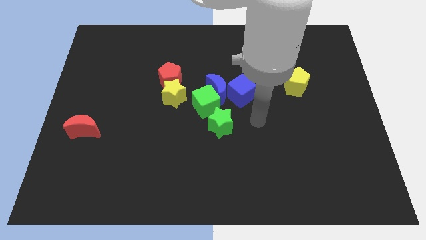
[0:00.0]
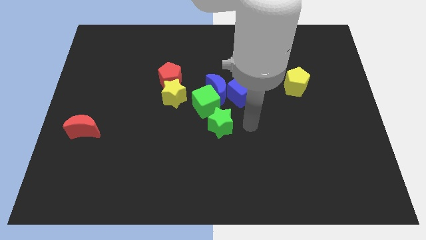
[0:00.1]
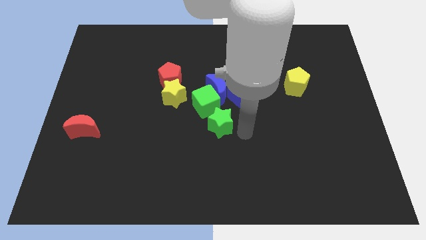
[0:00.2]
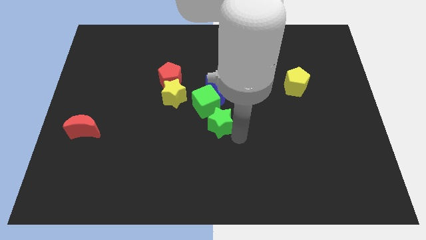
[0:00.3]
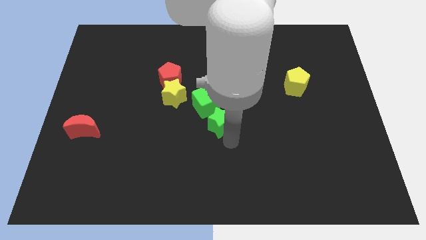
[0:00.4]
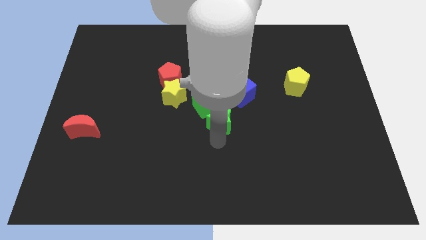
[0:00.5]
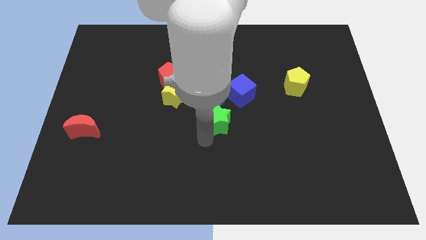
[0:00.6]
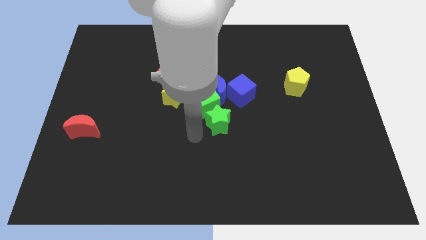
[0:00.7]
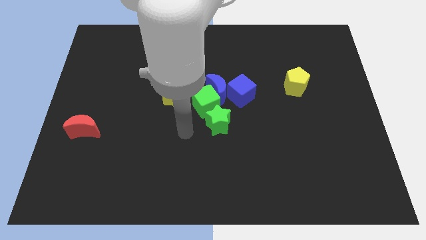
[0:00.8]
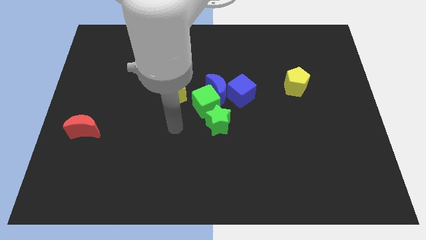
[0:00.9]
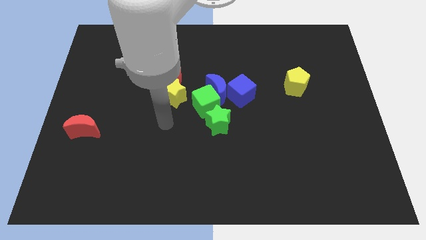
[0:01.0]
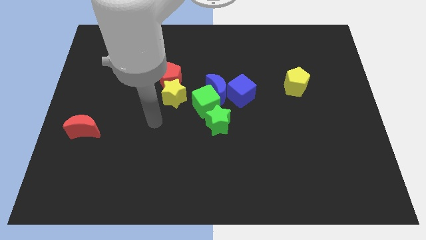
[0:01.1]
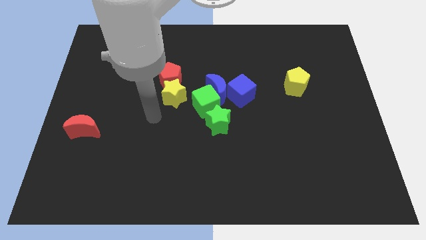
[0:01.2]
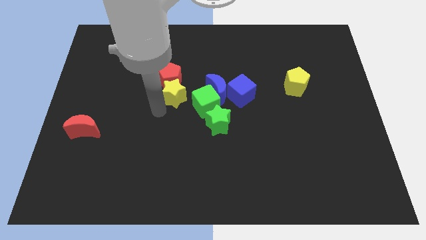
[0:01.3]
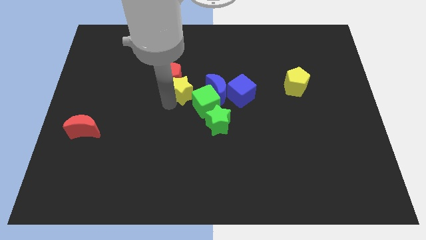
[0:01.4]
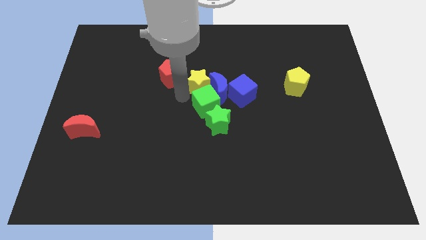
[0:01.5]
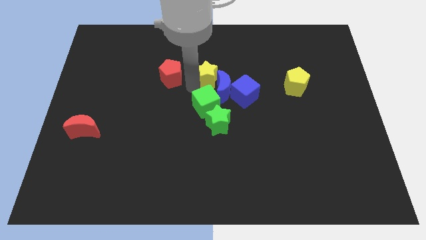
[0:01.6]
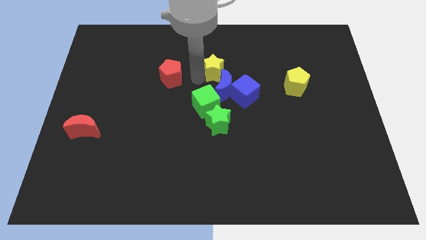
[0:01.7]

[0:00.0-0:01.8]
separate the red pentagon from the yellow star

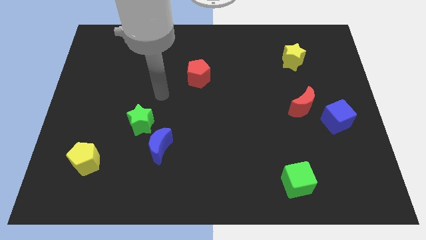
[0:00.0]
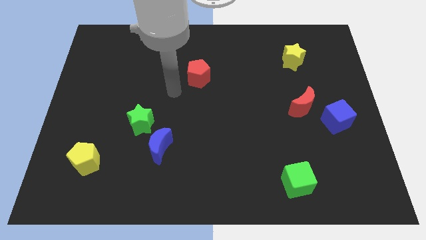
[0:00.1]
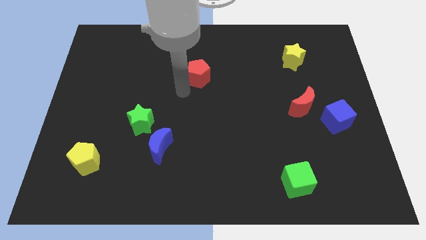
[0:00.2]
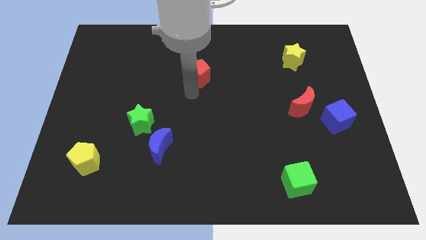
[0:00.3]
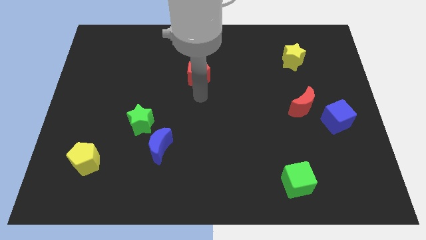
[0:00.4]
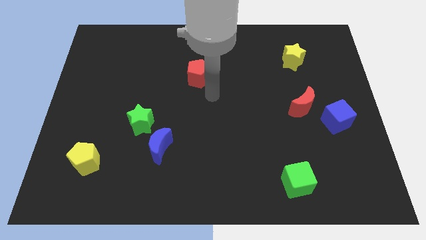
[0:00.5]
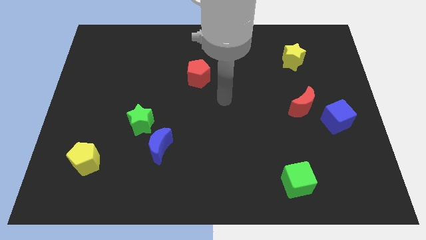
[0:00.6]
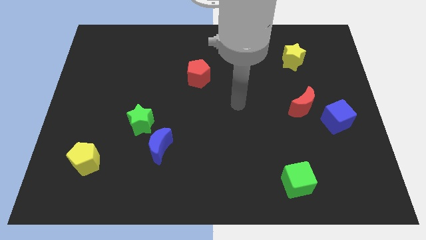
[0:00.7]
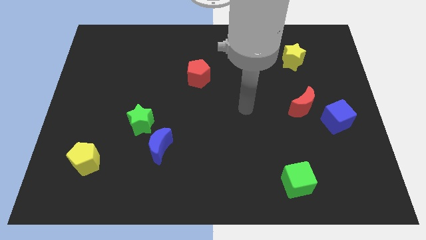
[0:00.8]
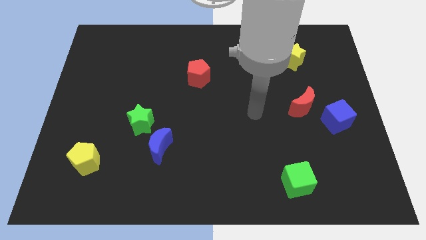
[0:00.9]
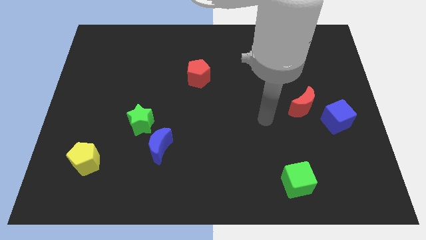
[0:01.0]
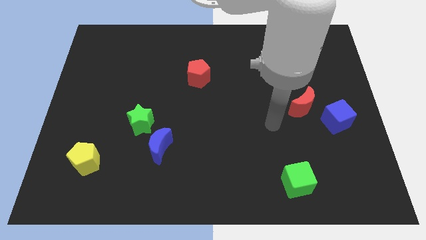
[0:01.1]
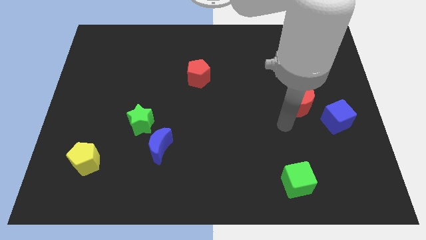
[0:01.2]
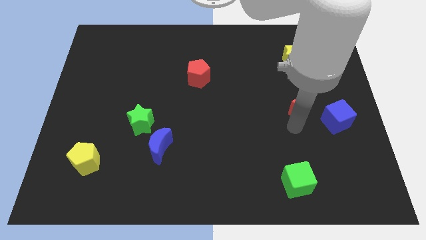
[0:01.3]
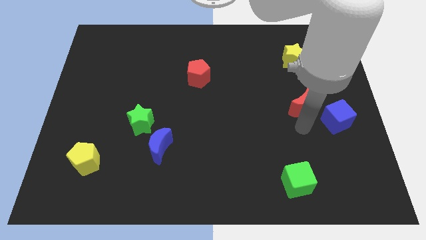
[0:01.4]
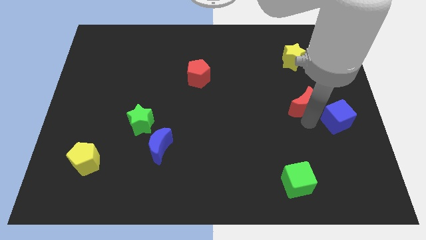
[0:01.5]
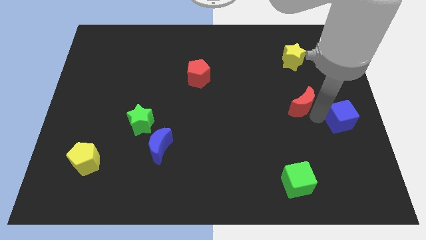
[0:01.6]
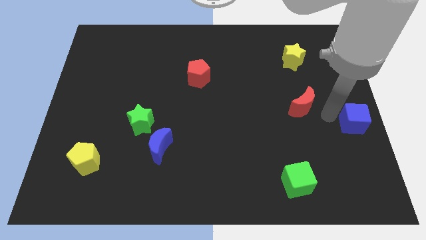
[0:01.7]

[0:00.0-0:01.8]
separate the red moon from the blue cube

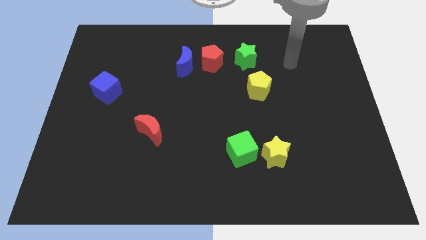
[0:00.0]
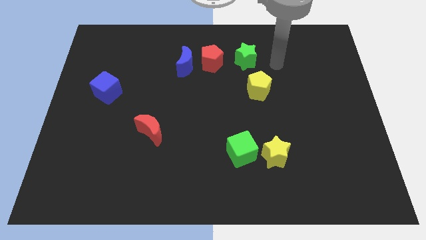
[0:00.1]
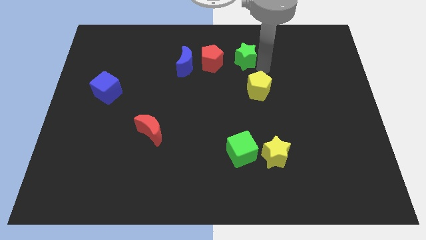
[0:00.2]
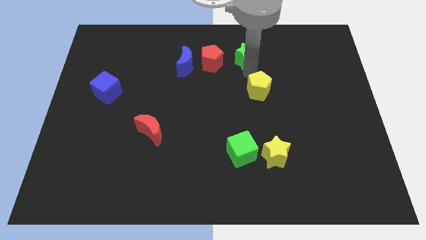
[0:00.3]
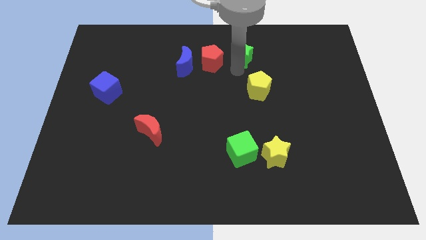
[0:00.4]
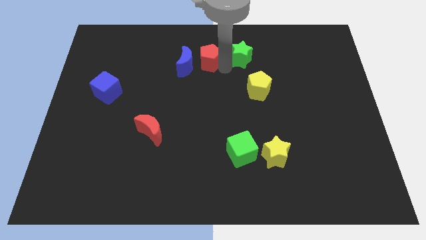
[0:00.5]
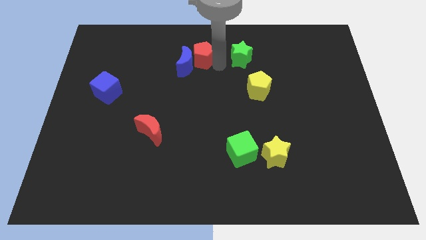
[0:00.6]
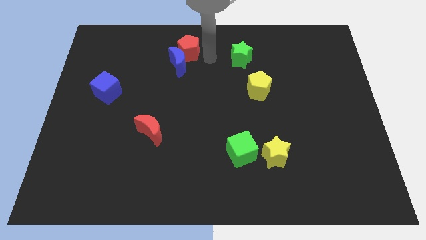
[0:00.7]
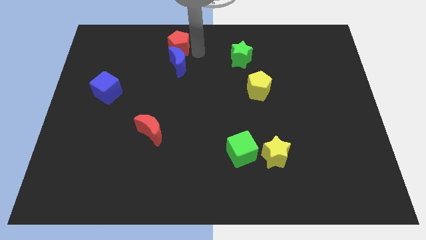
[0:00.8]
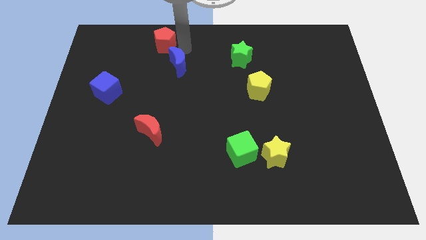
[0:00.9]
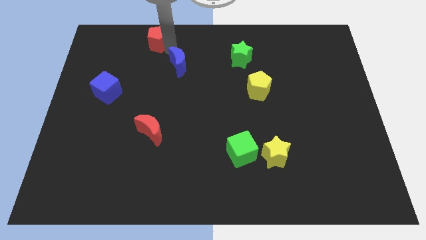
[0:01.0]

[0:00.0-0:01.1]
pull the blue moon apart from the red pentagon

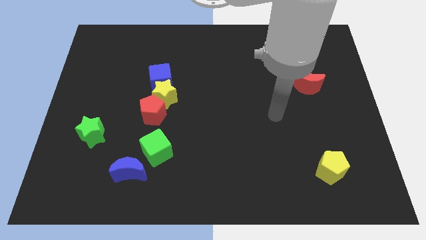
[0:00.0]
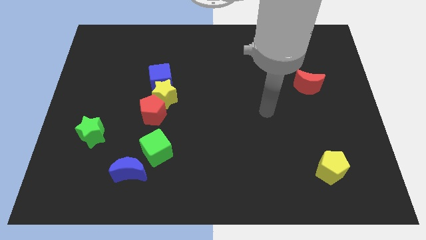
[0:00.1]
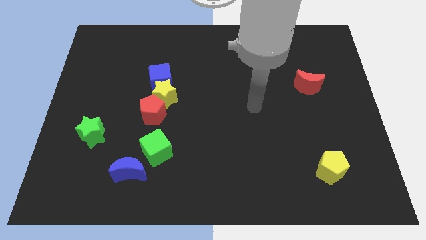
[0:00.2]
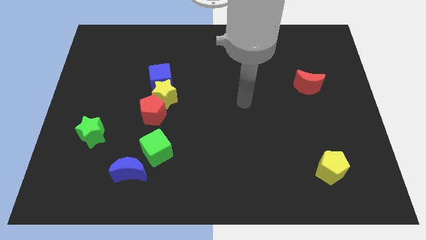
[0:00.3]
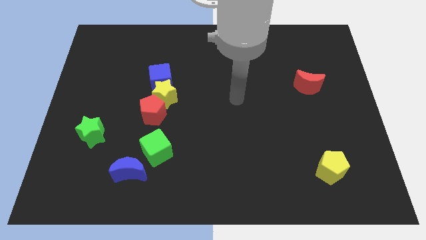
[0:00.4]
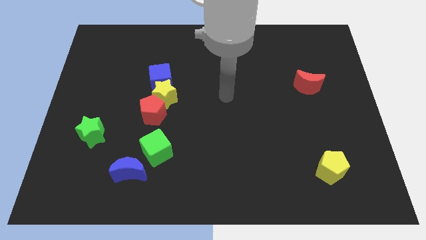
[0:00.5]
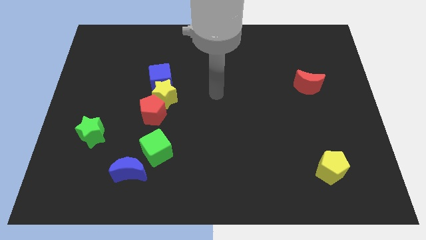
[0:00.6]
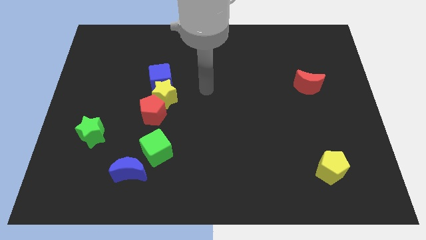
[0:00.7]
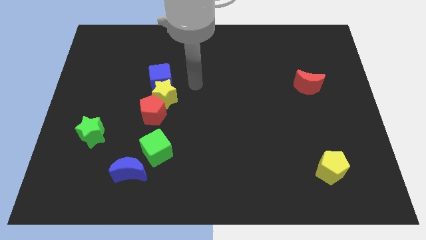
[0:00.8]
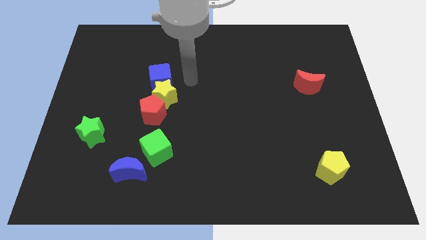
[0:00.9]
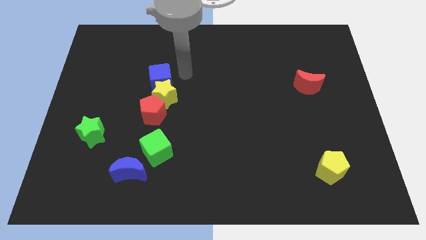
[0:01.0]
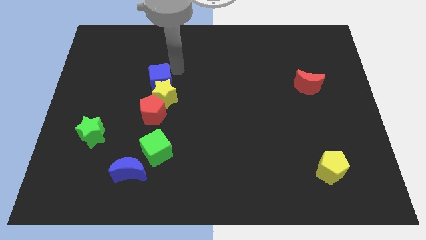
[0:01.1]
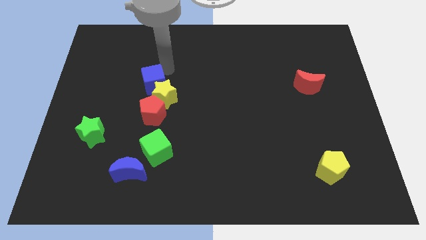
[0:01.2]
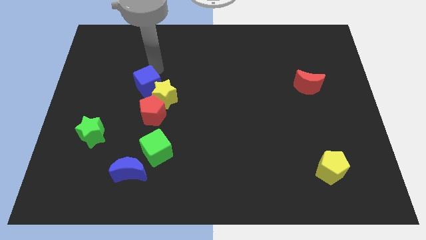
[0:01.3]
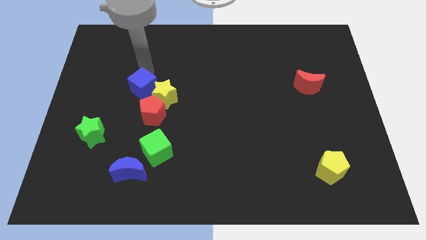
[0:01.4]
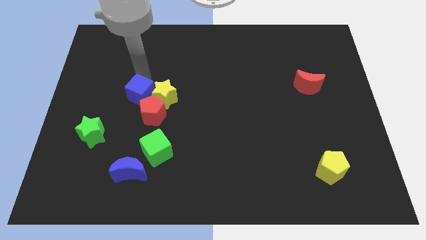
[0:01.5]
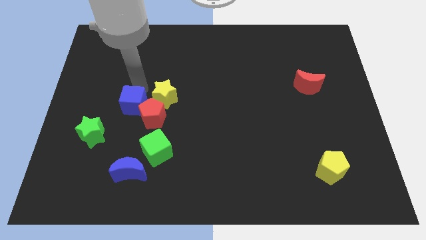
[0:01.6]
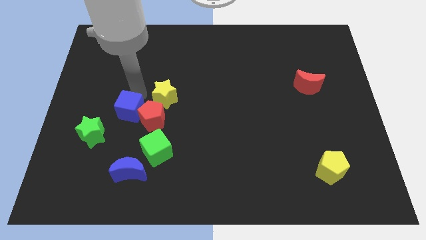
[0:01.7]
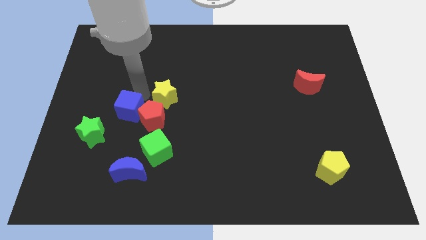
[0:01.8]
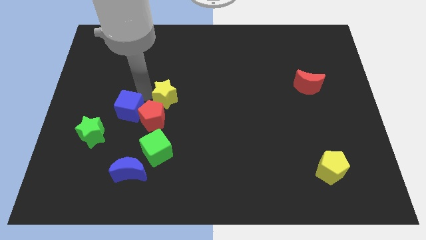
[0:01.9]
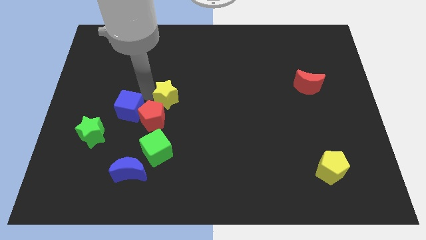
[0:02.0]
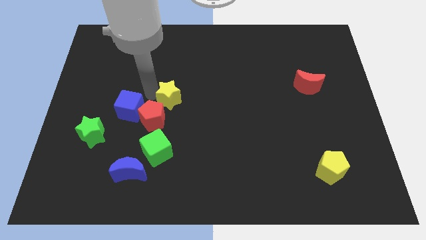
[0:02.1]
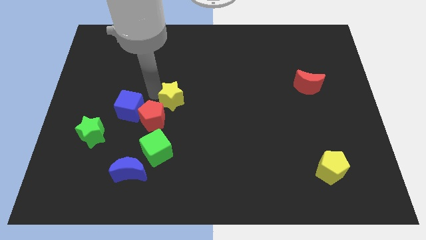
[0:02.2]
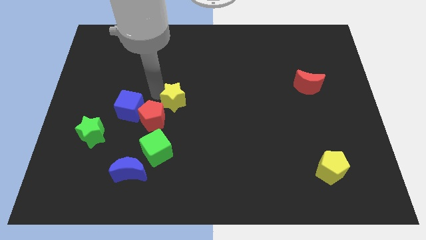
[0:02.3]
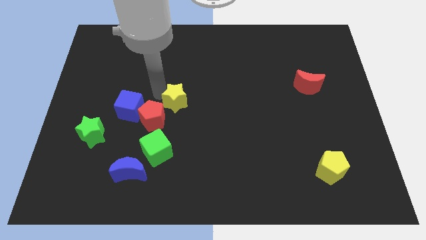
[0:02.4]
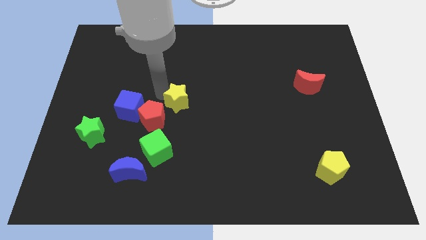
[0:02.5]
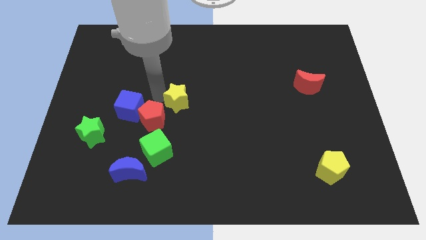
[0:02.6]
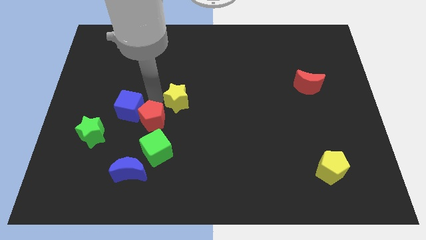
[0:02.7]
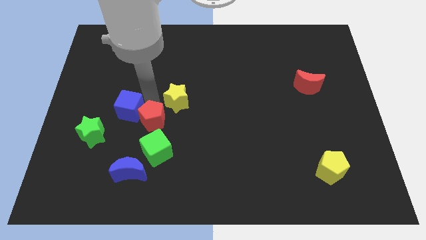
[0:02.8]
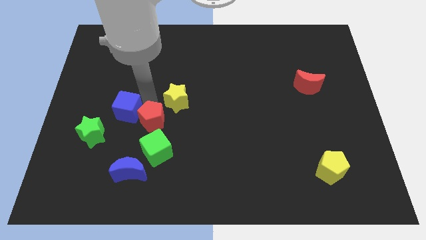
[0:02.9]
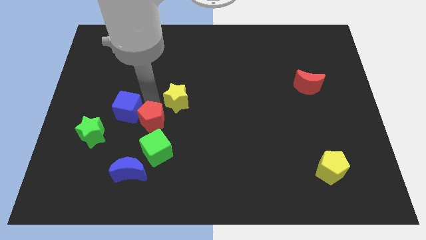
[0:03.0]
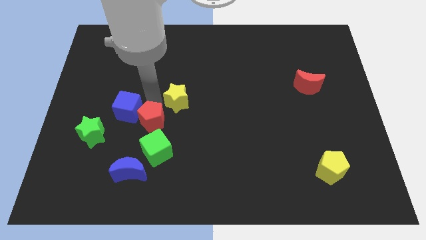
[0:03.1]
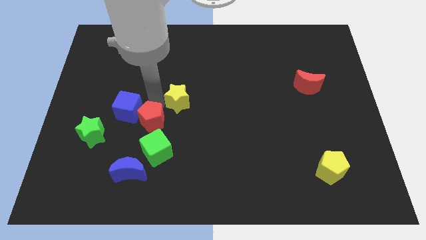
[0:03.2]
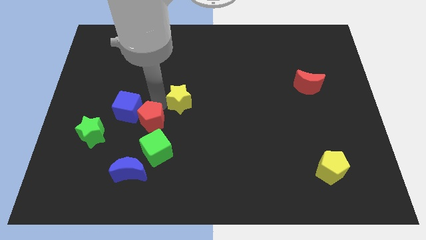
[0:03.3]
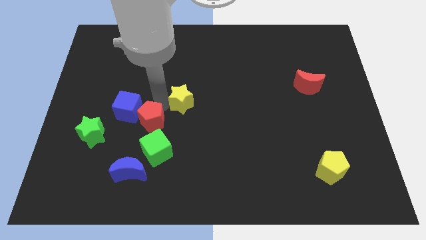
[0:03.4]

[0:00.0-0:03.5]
separate the yellow star from the red pentagon and blue cube

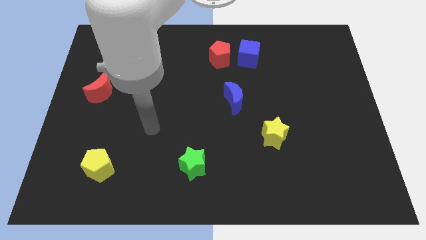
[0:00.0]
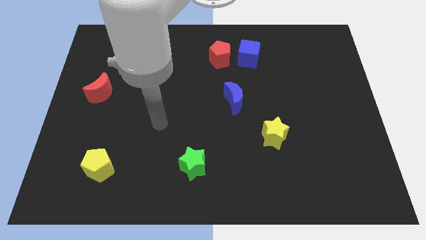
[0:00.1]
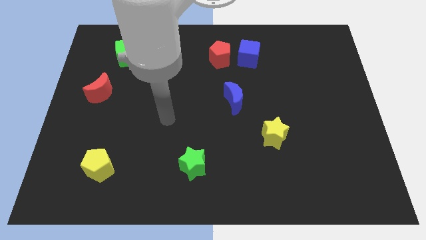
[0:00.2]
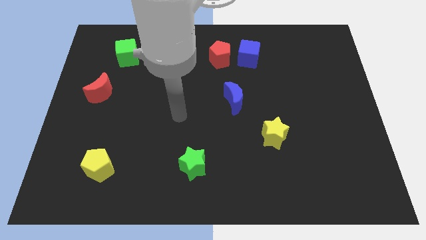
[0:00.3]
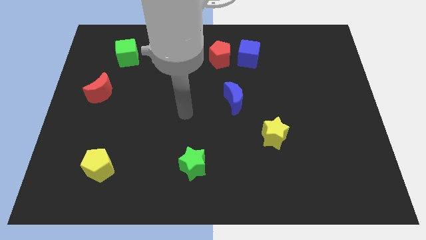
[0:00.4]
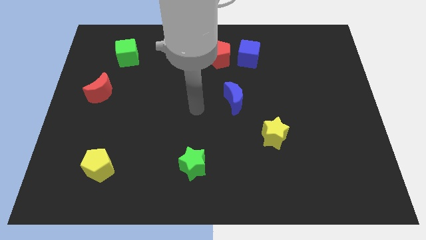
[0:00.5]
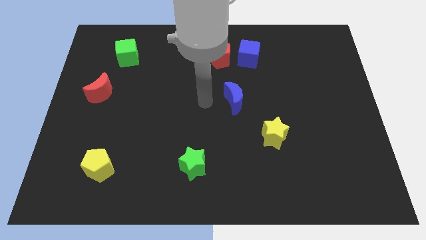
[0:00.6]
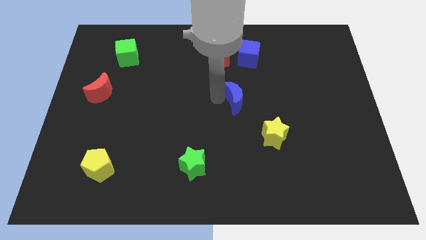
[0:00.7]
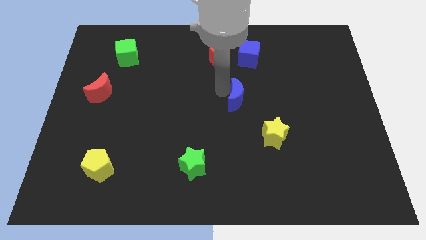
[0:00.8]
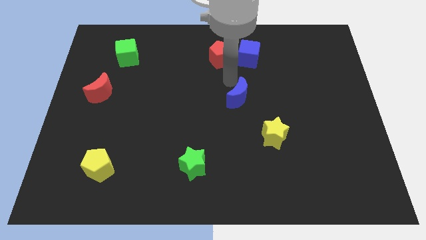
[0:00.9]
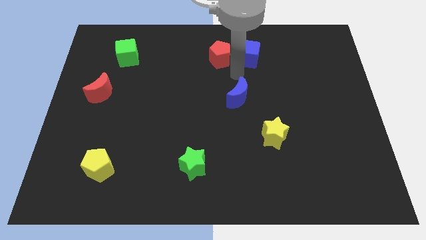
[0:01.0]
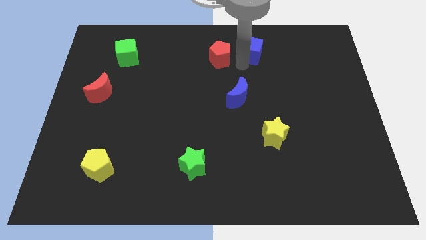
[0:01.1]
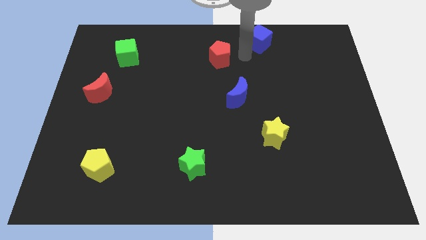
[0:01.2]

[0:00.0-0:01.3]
separate the red pentagon from the blue cube
